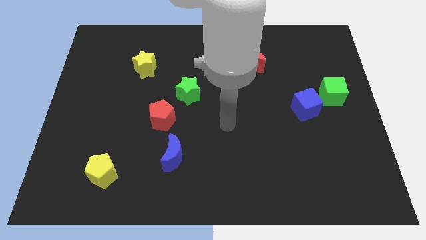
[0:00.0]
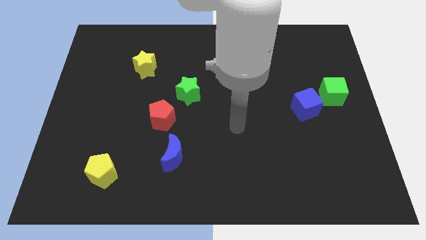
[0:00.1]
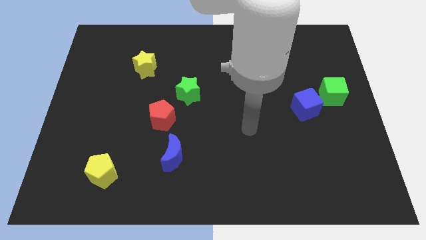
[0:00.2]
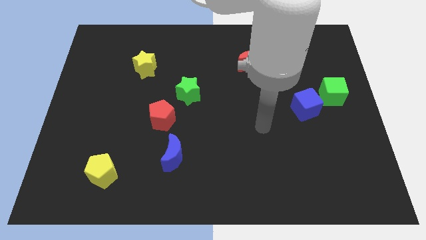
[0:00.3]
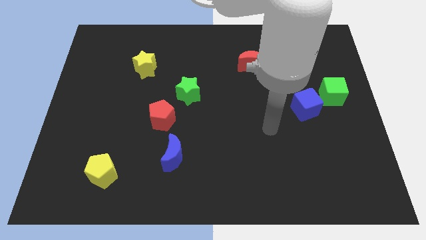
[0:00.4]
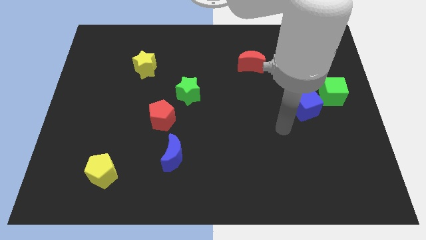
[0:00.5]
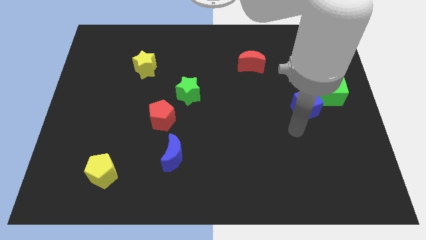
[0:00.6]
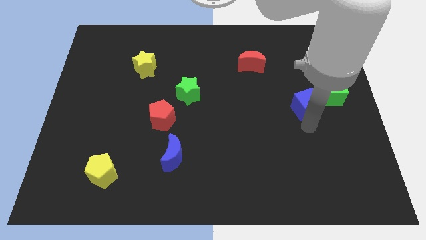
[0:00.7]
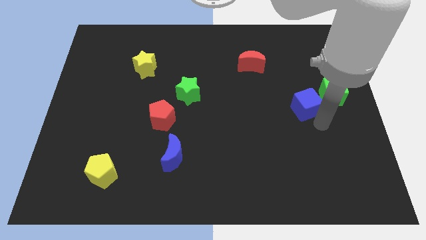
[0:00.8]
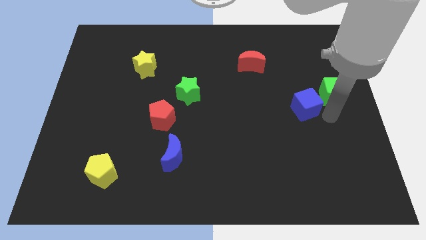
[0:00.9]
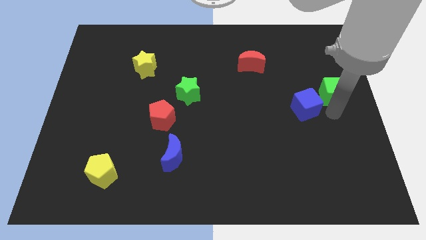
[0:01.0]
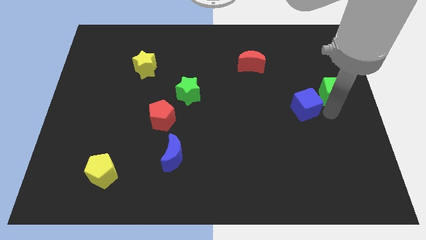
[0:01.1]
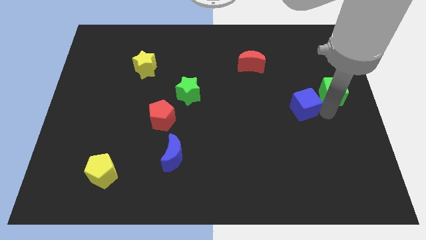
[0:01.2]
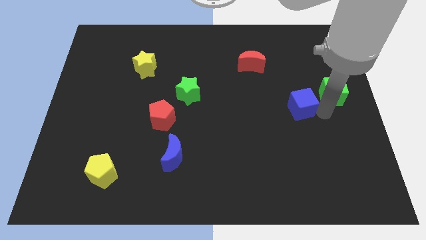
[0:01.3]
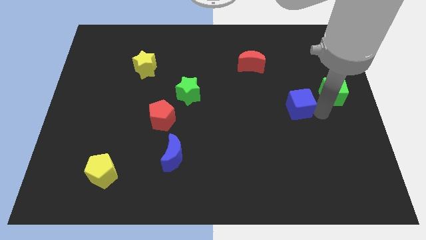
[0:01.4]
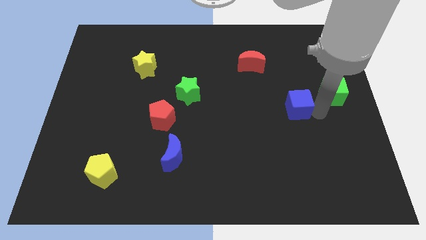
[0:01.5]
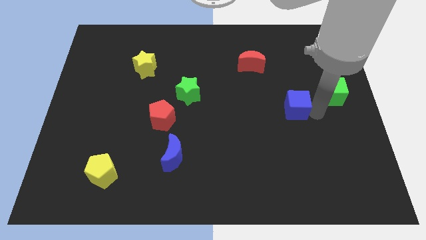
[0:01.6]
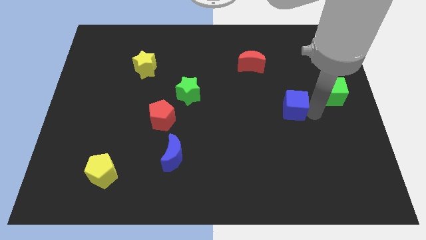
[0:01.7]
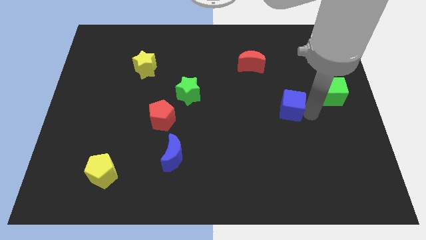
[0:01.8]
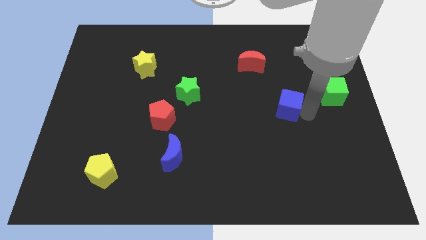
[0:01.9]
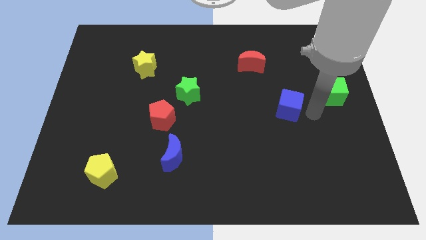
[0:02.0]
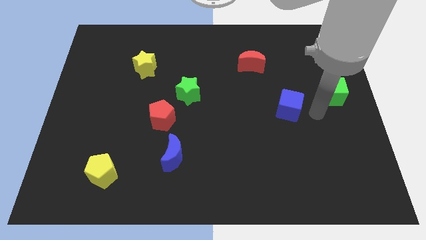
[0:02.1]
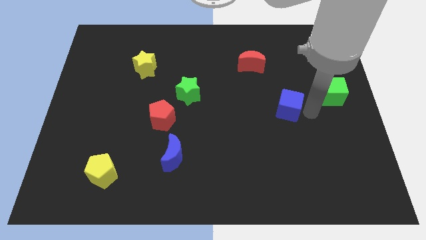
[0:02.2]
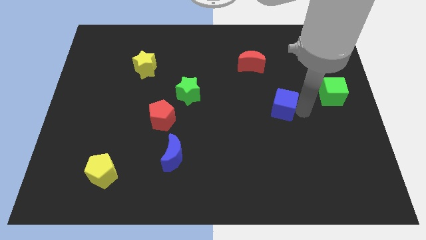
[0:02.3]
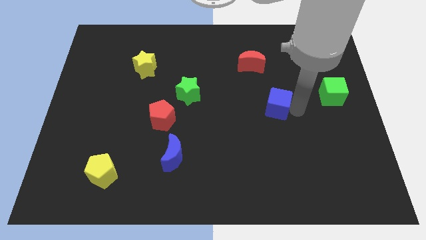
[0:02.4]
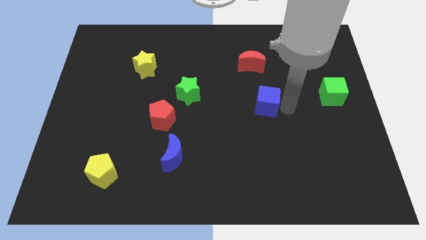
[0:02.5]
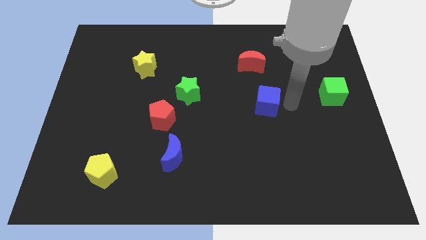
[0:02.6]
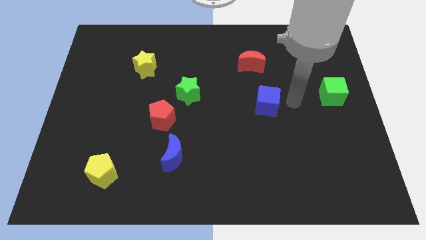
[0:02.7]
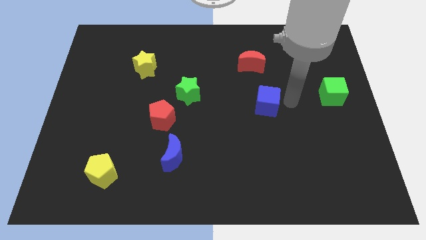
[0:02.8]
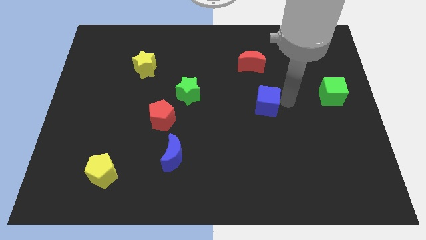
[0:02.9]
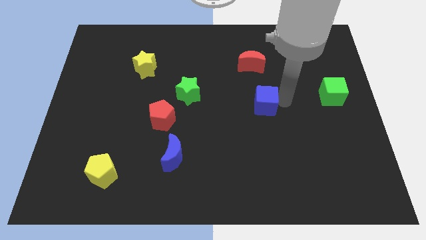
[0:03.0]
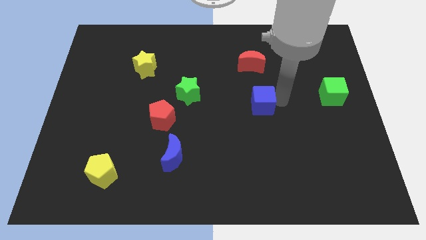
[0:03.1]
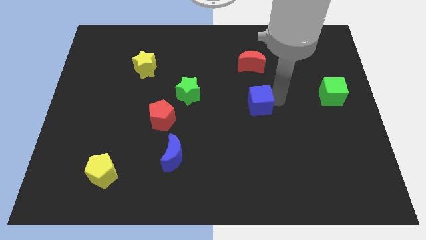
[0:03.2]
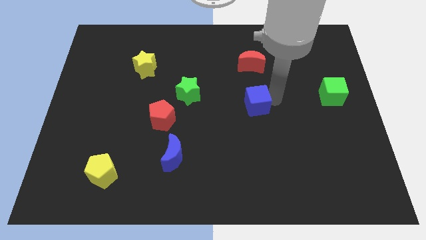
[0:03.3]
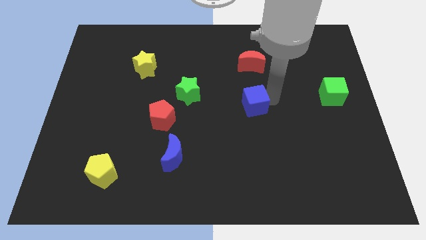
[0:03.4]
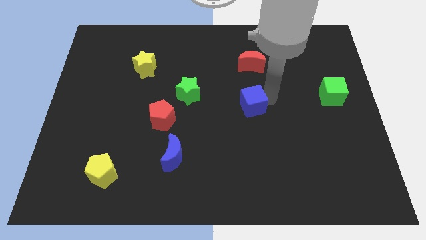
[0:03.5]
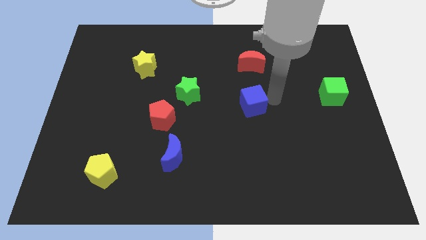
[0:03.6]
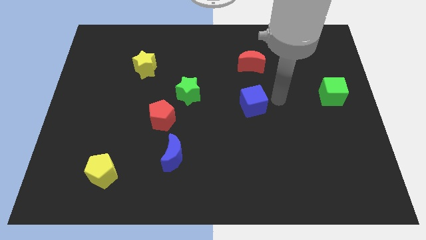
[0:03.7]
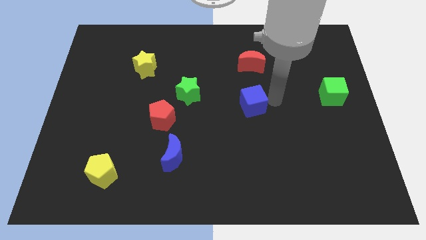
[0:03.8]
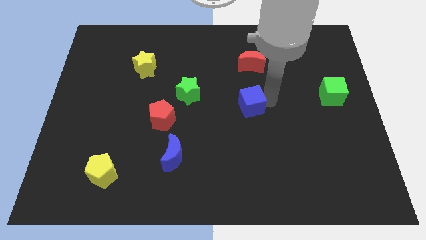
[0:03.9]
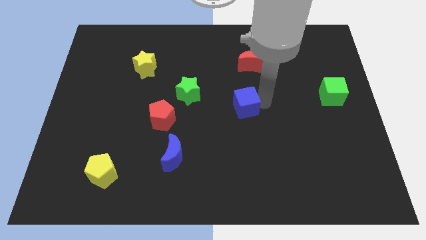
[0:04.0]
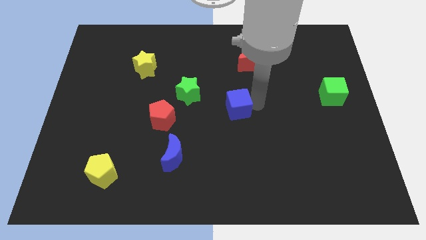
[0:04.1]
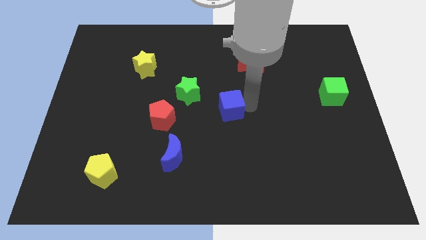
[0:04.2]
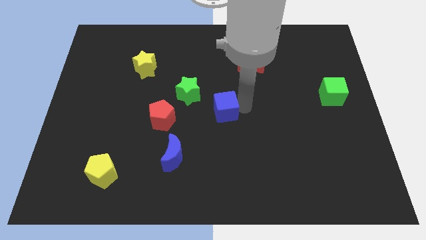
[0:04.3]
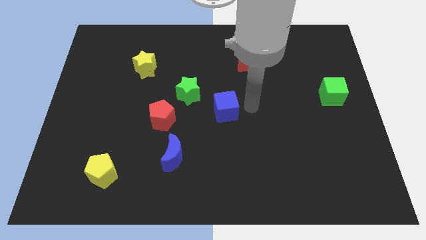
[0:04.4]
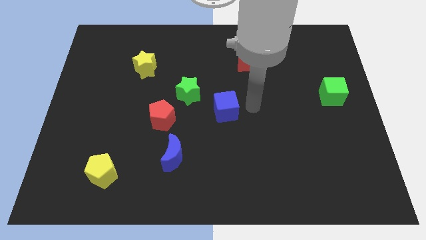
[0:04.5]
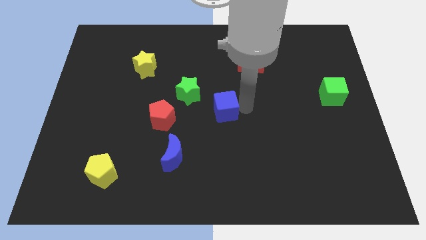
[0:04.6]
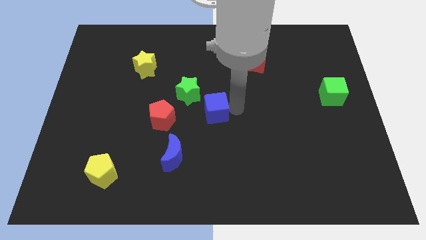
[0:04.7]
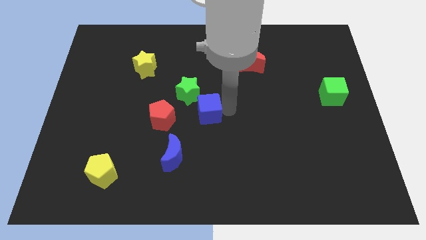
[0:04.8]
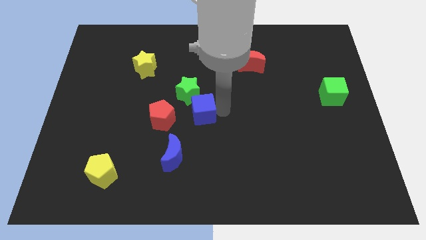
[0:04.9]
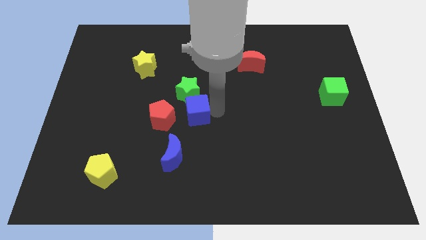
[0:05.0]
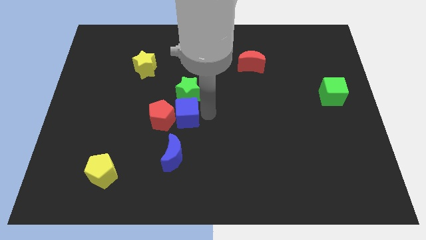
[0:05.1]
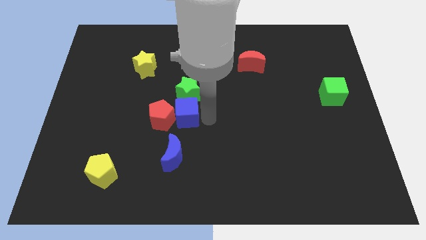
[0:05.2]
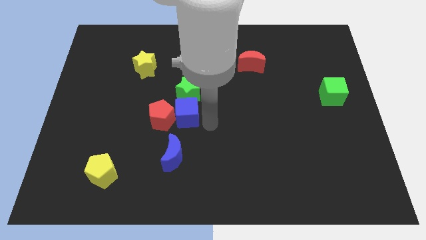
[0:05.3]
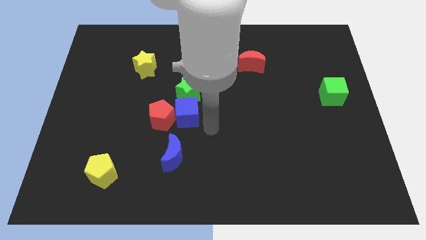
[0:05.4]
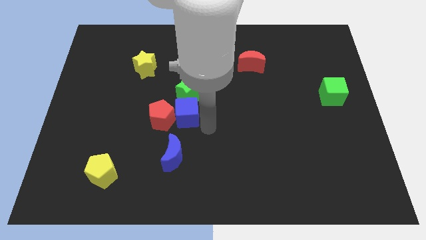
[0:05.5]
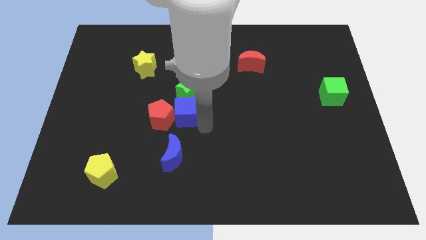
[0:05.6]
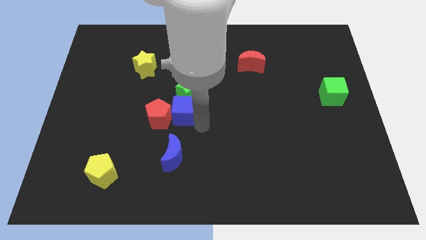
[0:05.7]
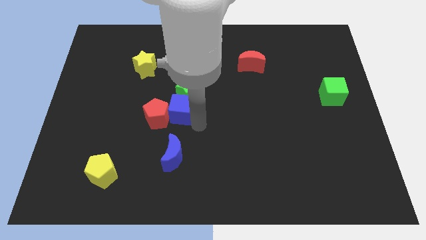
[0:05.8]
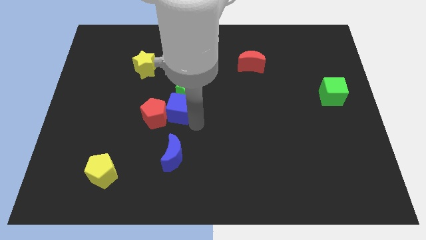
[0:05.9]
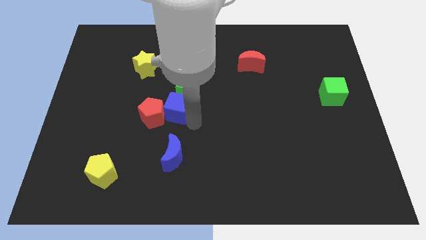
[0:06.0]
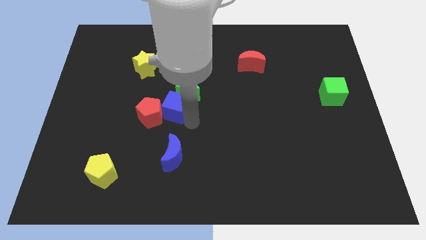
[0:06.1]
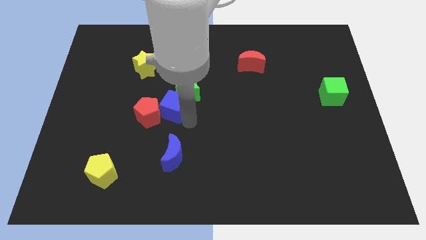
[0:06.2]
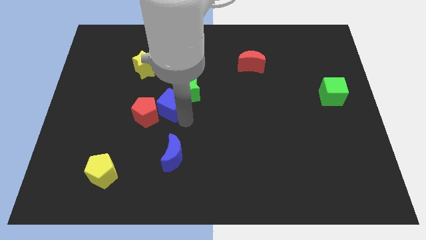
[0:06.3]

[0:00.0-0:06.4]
put the blue cube to the left side of the green star

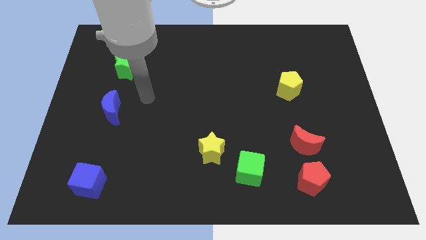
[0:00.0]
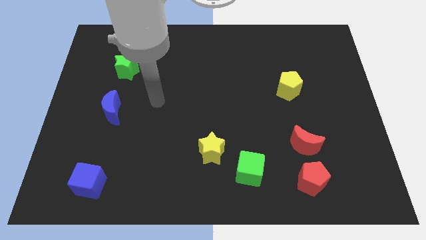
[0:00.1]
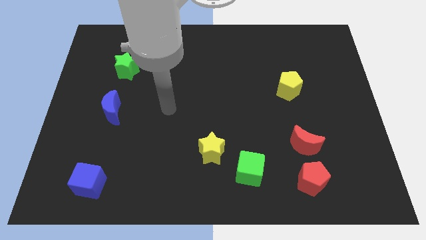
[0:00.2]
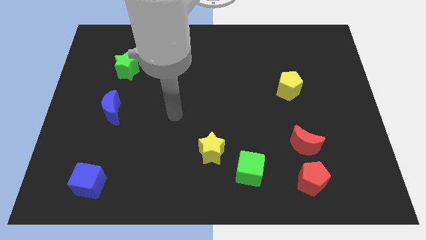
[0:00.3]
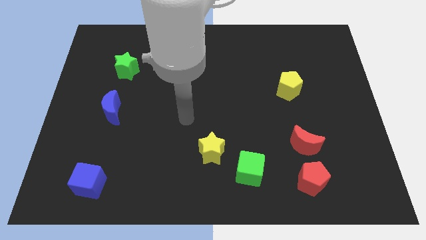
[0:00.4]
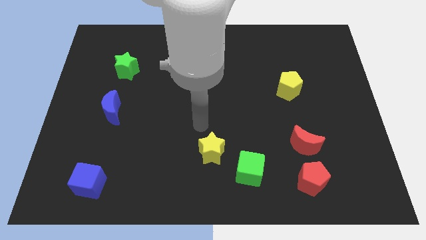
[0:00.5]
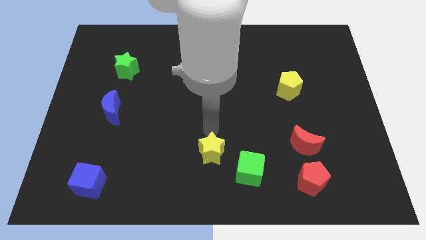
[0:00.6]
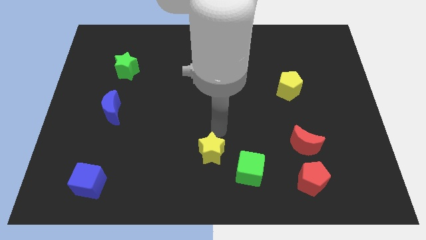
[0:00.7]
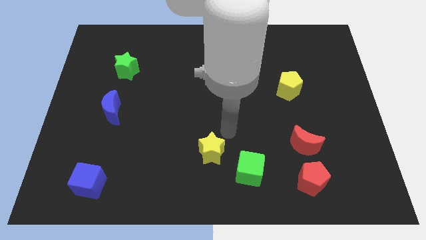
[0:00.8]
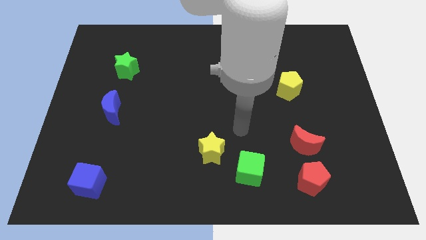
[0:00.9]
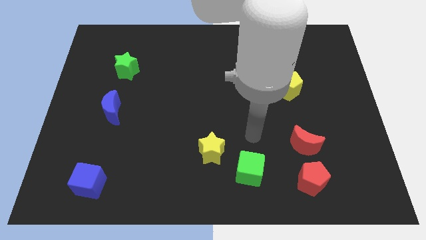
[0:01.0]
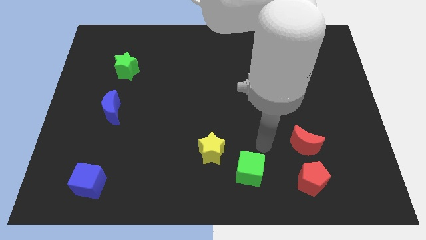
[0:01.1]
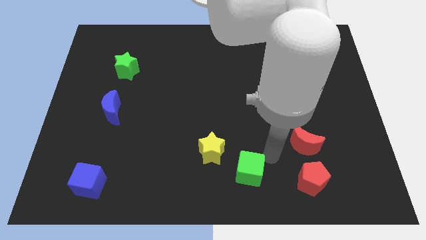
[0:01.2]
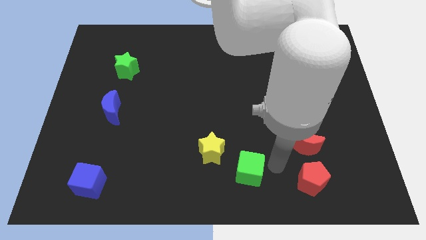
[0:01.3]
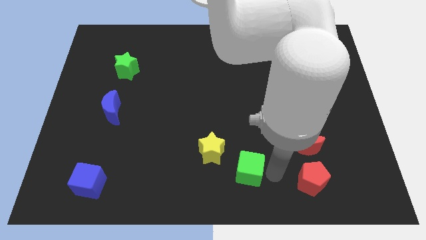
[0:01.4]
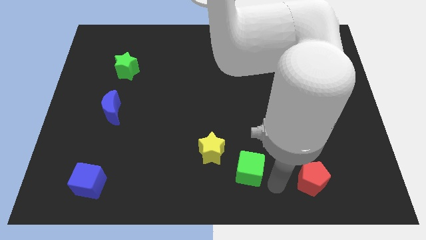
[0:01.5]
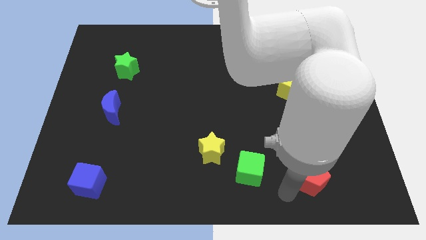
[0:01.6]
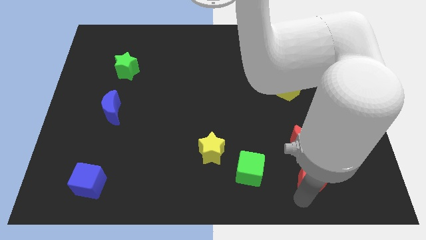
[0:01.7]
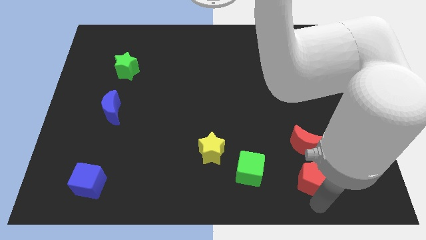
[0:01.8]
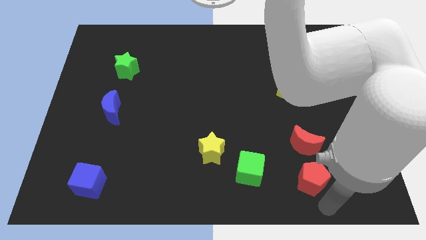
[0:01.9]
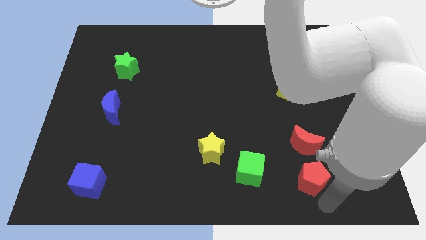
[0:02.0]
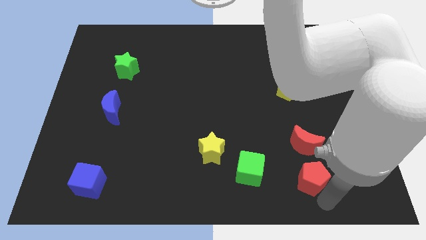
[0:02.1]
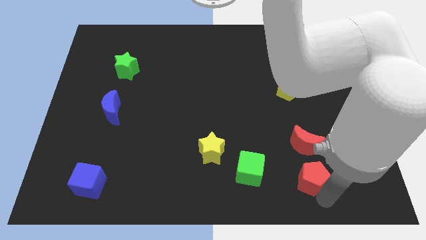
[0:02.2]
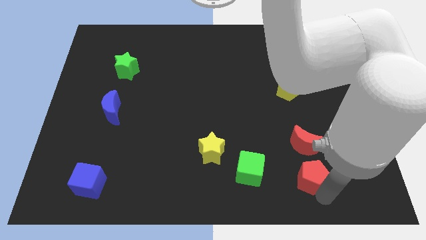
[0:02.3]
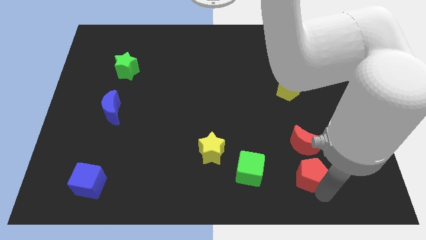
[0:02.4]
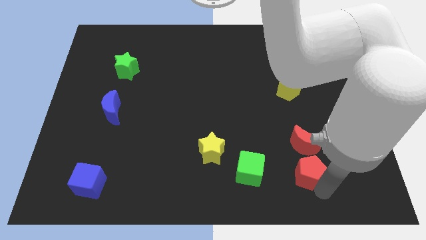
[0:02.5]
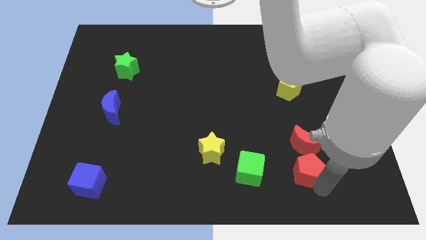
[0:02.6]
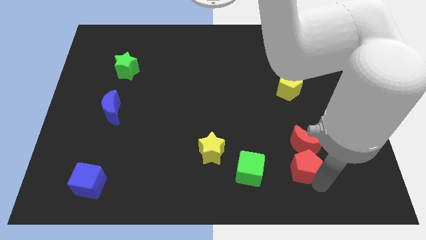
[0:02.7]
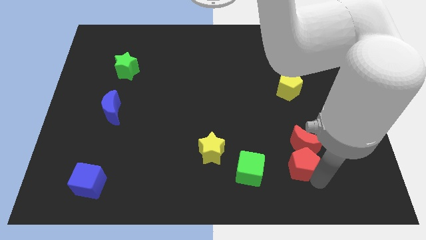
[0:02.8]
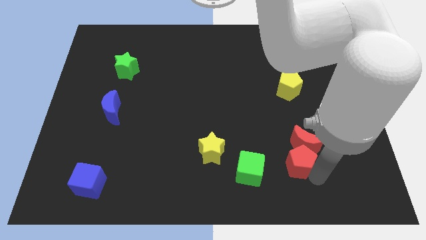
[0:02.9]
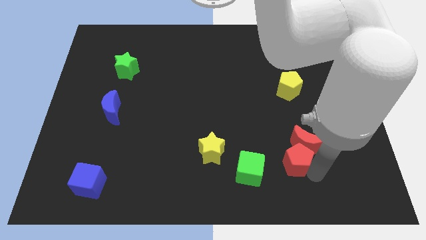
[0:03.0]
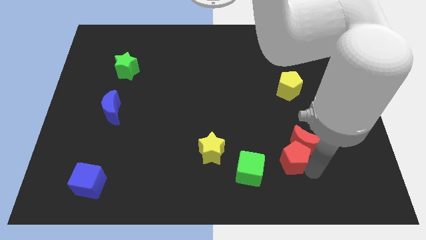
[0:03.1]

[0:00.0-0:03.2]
slide the red pentagon diagonally up and to the right of the green cube
